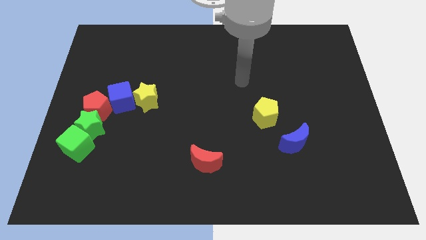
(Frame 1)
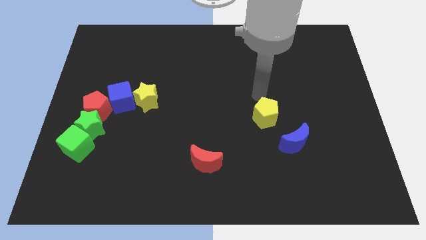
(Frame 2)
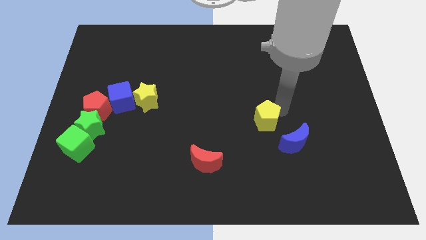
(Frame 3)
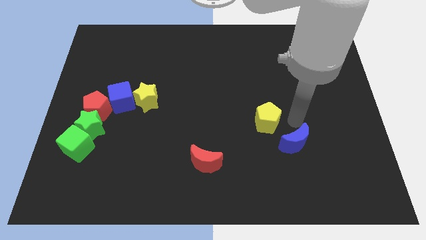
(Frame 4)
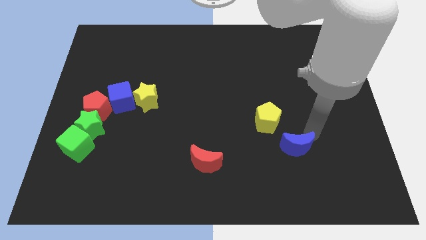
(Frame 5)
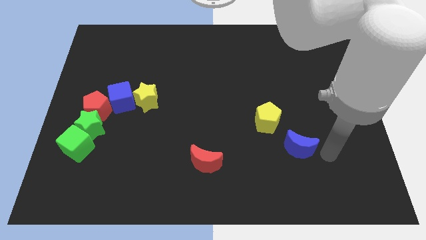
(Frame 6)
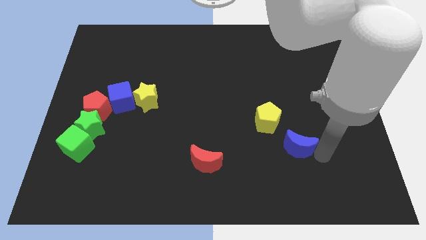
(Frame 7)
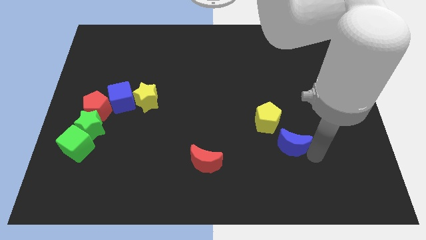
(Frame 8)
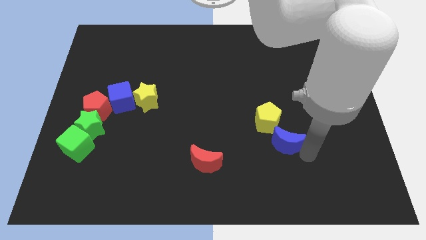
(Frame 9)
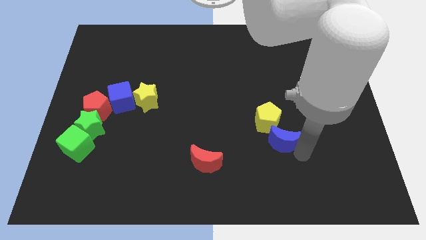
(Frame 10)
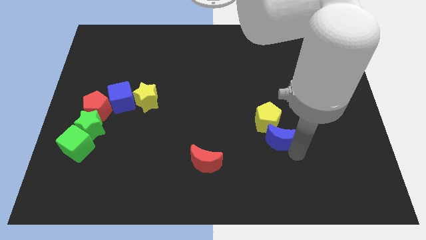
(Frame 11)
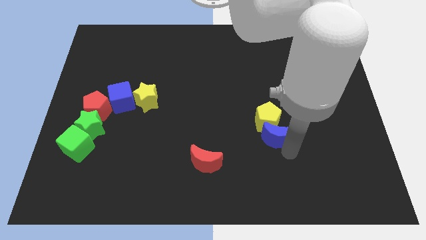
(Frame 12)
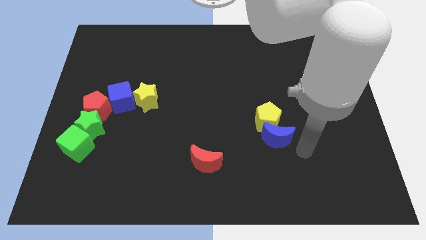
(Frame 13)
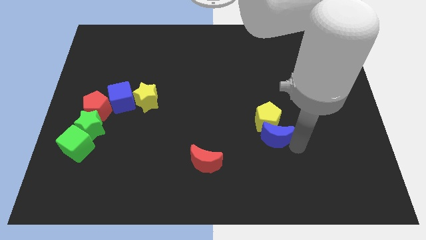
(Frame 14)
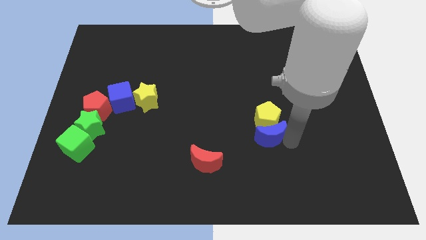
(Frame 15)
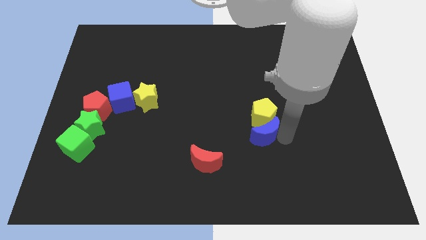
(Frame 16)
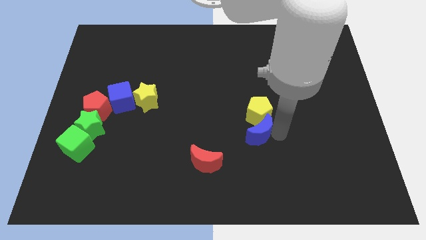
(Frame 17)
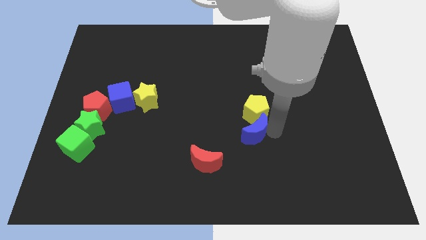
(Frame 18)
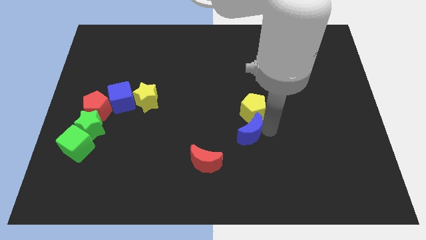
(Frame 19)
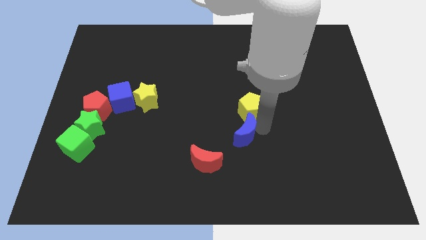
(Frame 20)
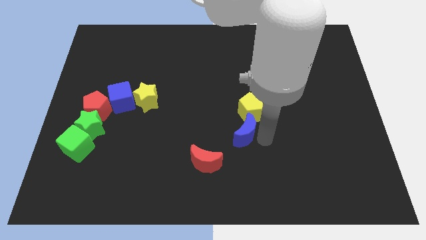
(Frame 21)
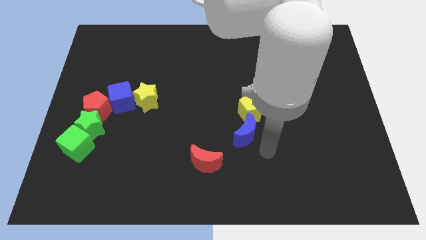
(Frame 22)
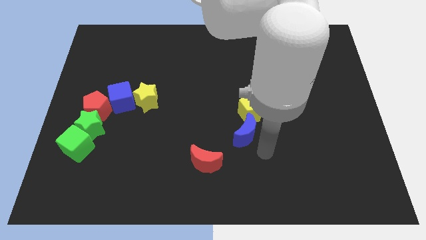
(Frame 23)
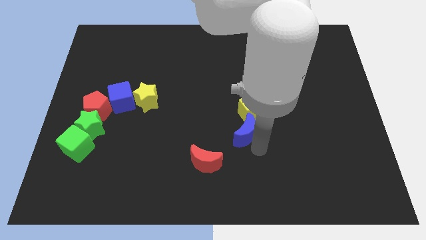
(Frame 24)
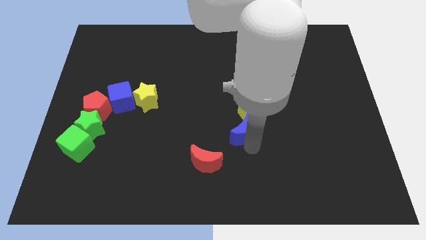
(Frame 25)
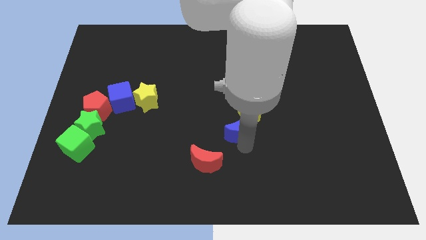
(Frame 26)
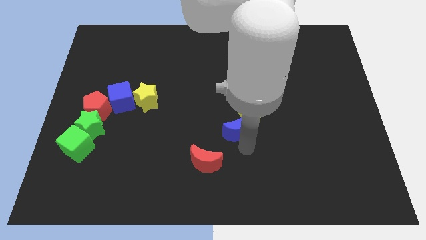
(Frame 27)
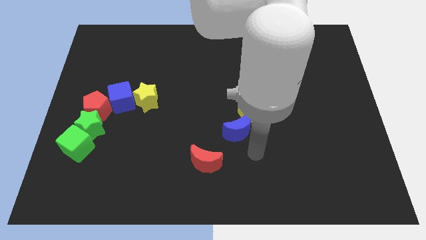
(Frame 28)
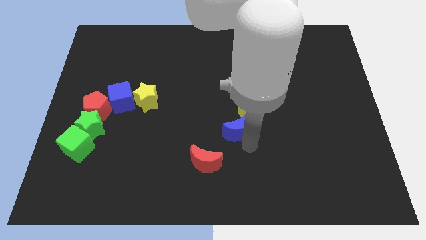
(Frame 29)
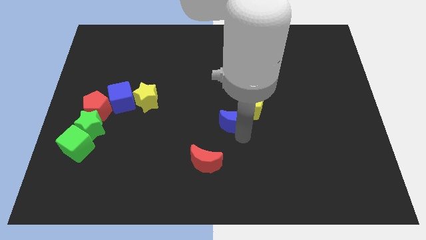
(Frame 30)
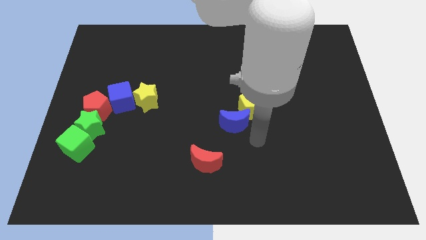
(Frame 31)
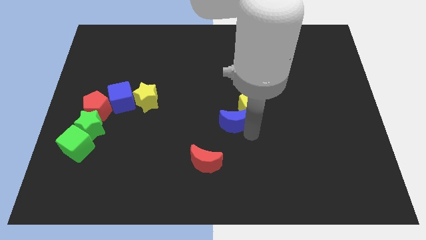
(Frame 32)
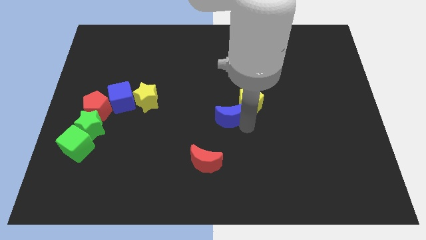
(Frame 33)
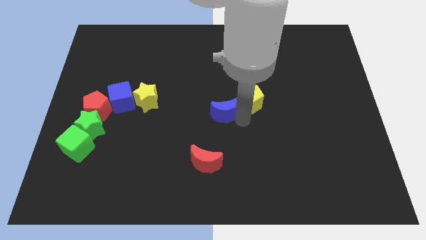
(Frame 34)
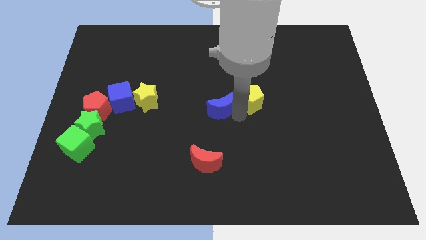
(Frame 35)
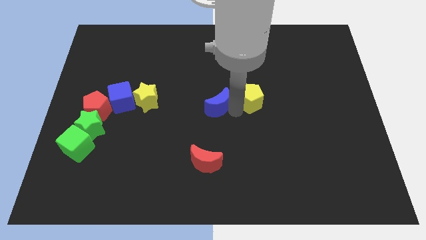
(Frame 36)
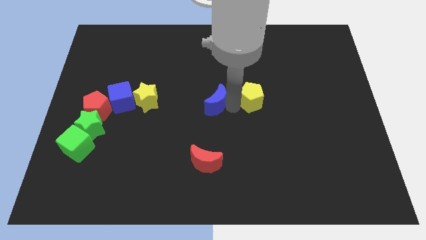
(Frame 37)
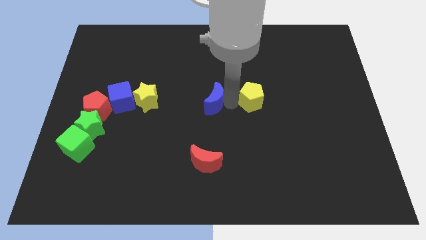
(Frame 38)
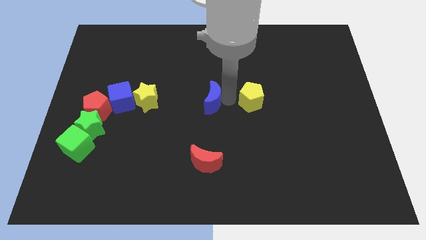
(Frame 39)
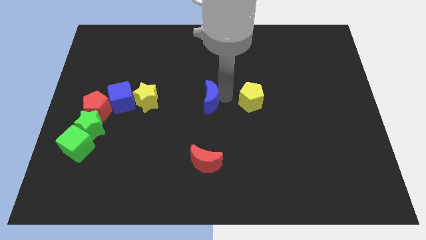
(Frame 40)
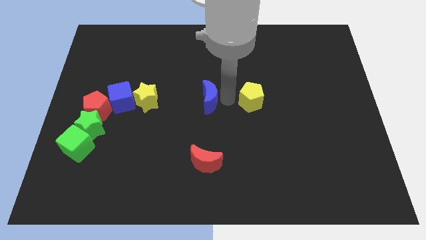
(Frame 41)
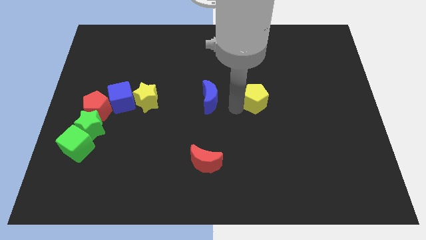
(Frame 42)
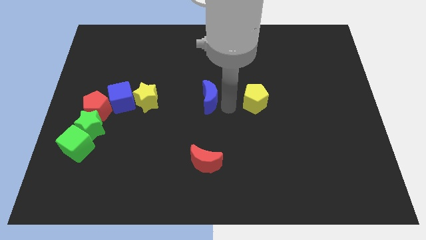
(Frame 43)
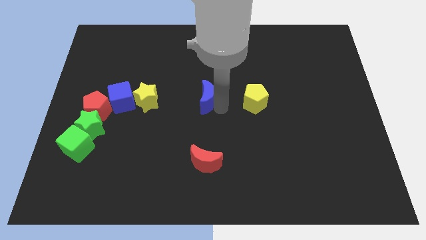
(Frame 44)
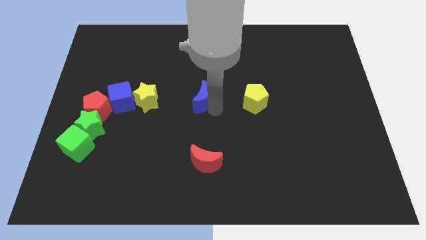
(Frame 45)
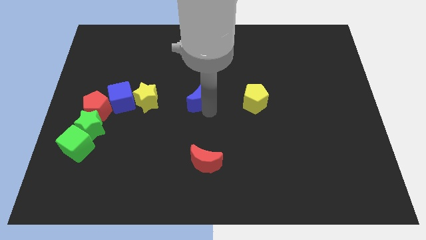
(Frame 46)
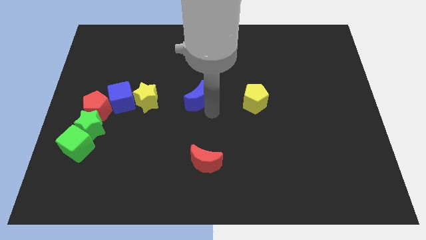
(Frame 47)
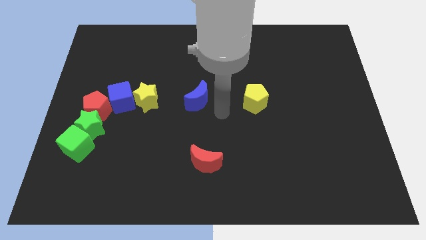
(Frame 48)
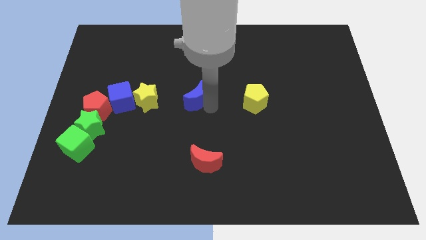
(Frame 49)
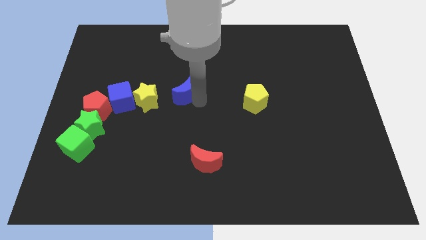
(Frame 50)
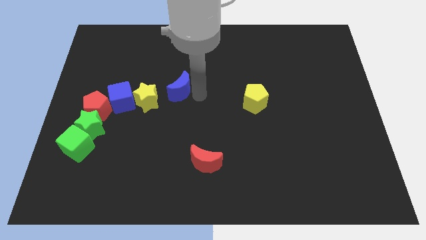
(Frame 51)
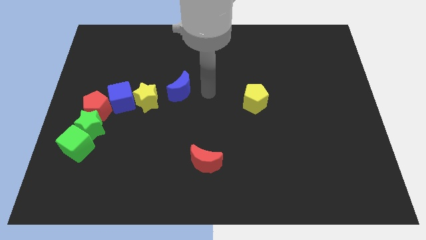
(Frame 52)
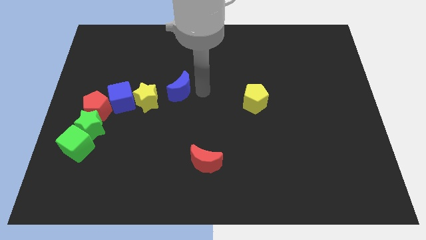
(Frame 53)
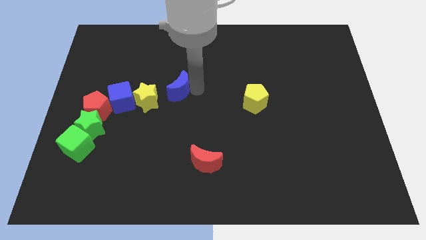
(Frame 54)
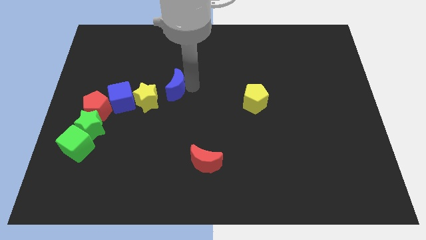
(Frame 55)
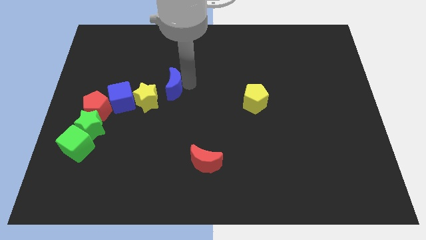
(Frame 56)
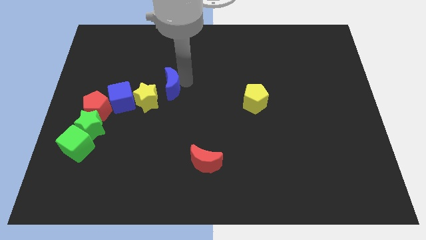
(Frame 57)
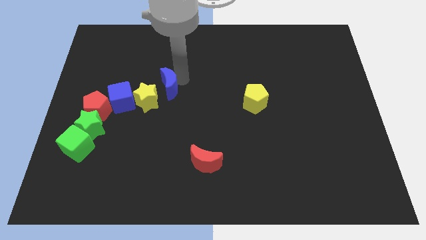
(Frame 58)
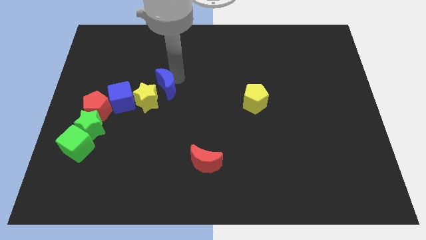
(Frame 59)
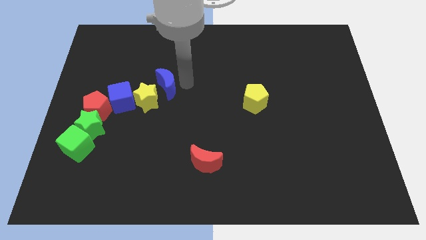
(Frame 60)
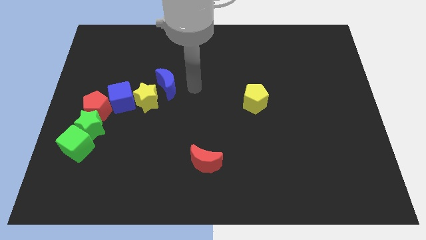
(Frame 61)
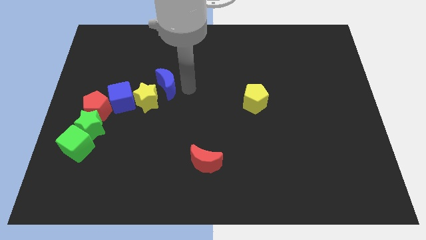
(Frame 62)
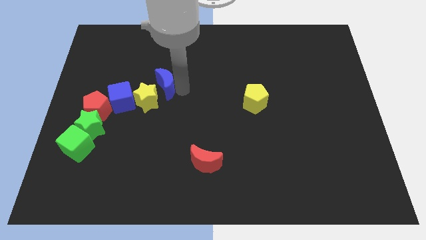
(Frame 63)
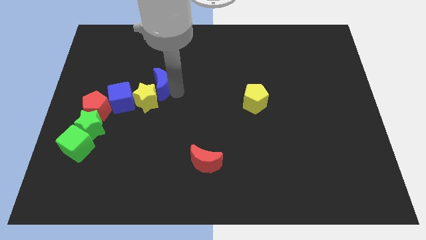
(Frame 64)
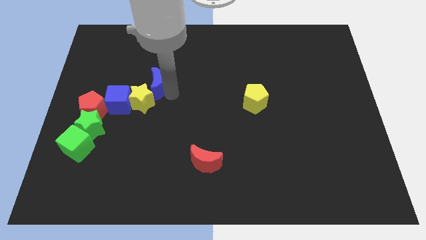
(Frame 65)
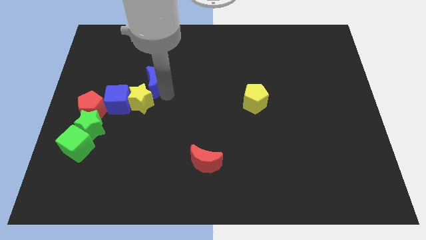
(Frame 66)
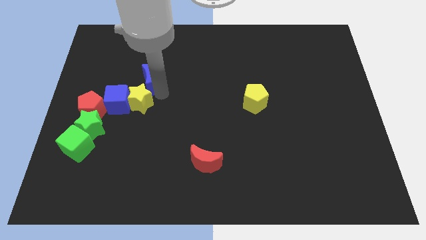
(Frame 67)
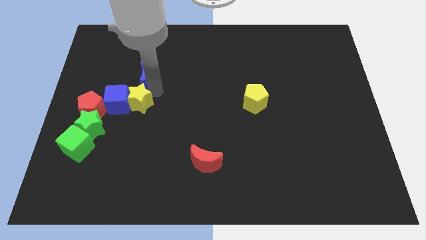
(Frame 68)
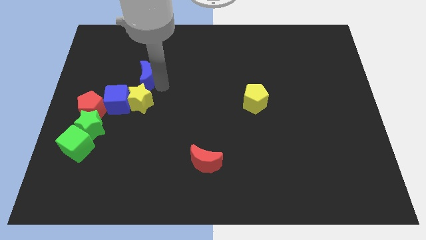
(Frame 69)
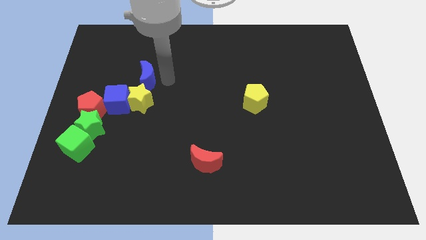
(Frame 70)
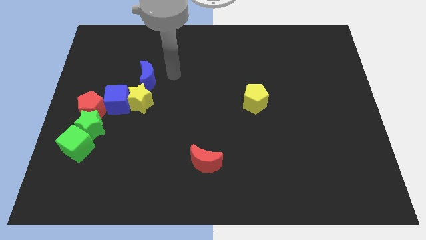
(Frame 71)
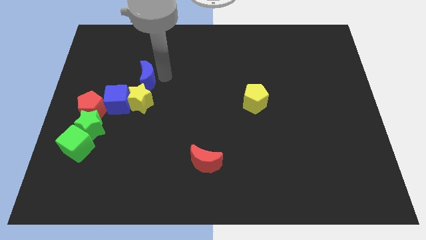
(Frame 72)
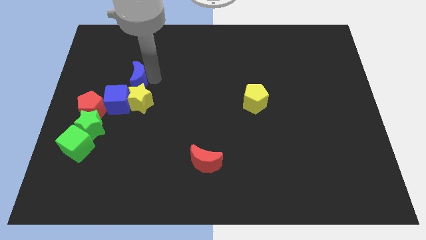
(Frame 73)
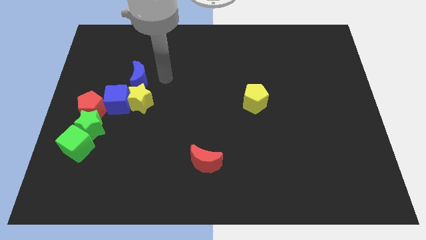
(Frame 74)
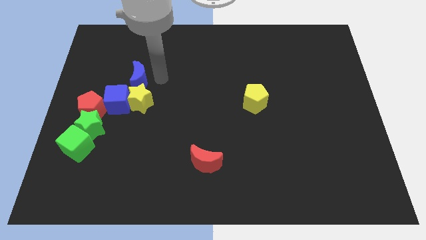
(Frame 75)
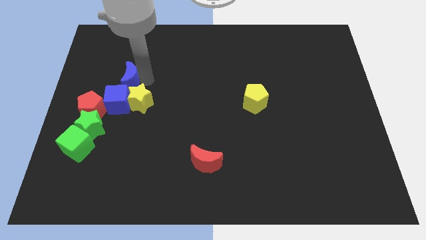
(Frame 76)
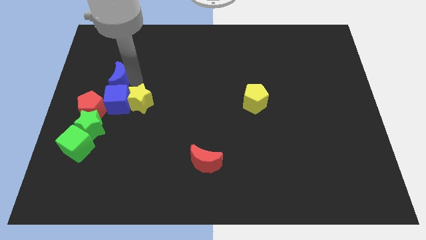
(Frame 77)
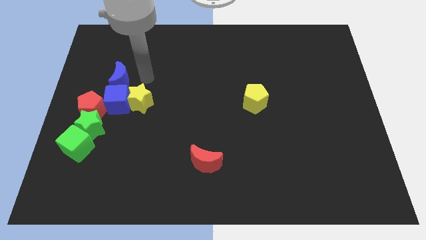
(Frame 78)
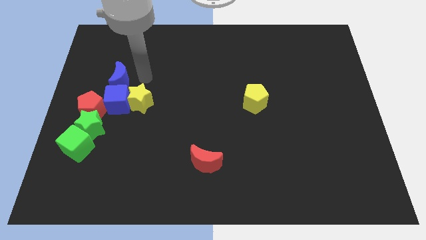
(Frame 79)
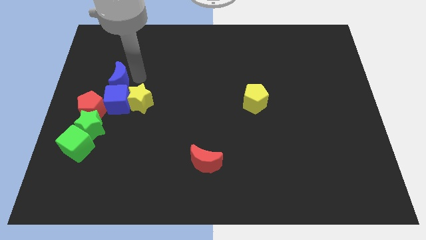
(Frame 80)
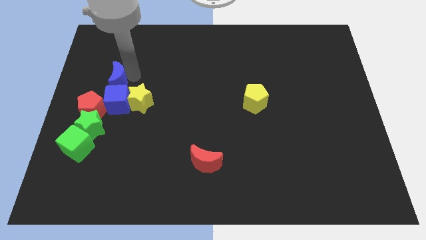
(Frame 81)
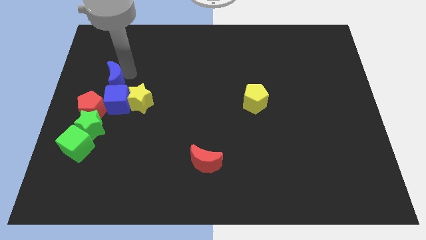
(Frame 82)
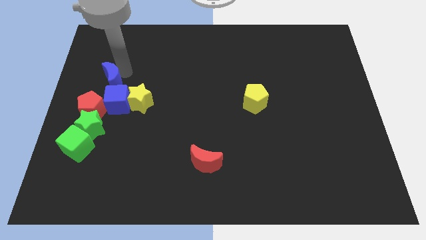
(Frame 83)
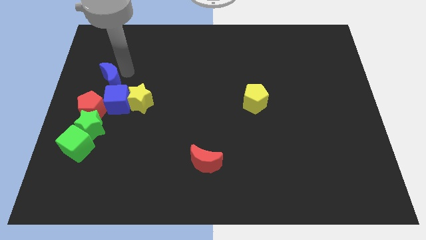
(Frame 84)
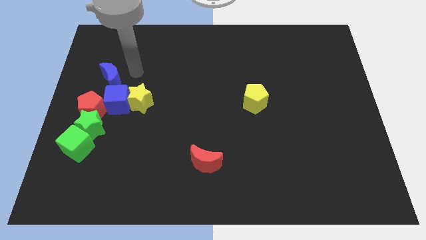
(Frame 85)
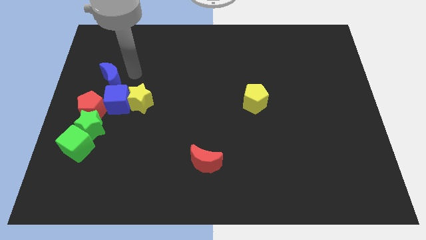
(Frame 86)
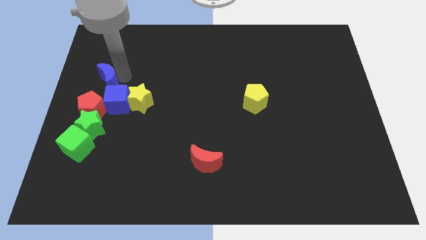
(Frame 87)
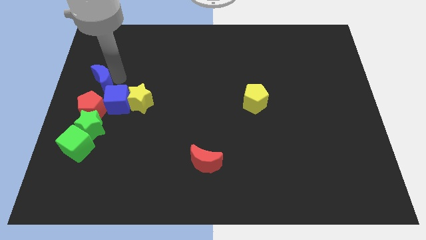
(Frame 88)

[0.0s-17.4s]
put the blue moon to the left side of the board
